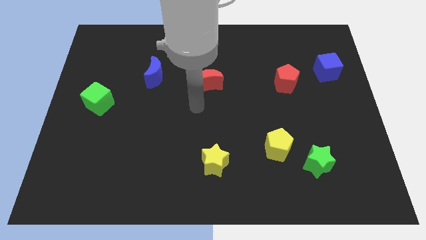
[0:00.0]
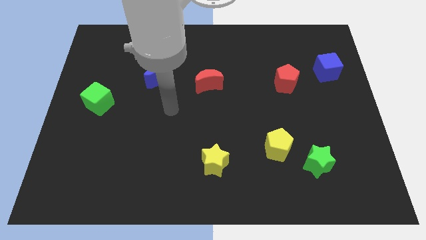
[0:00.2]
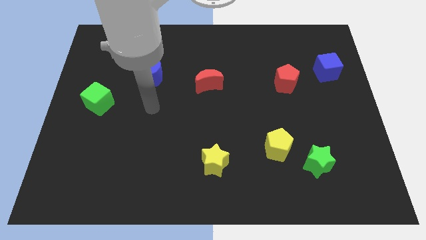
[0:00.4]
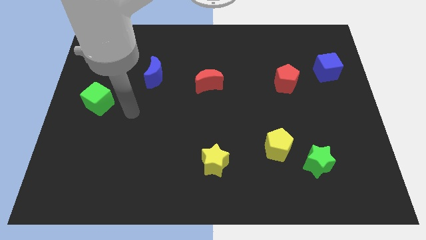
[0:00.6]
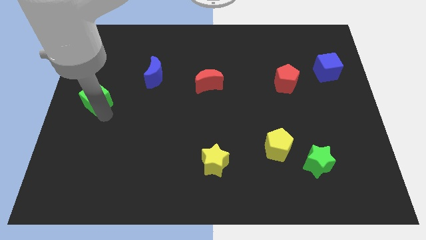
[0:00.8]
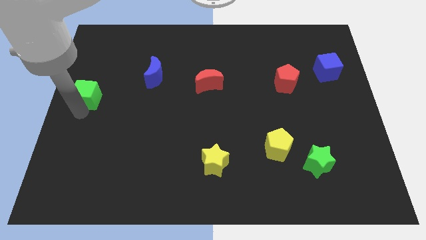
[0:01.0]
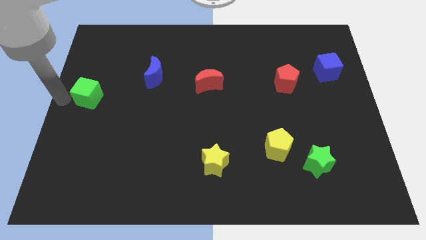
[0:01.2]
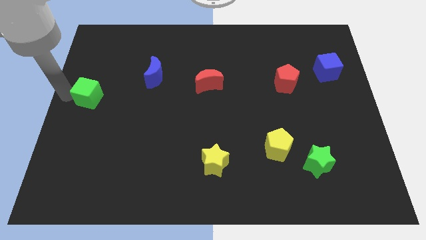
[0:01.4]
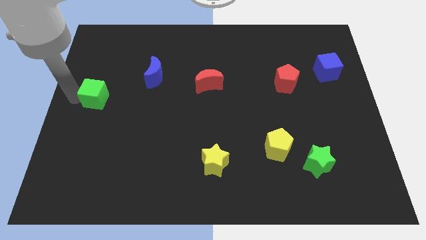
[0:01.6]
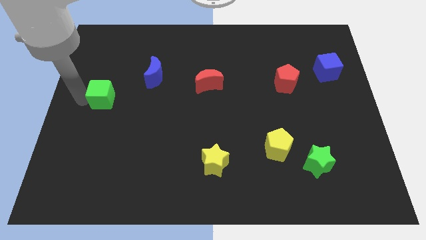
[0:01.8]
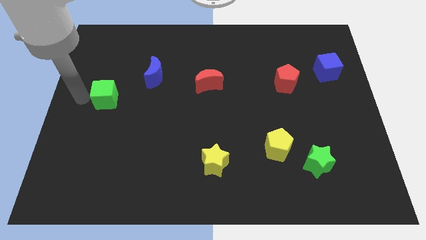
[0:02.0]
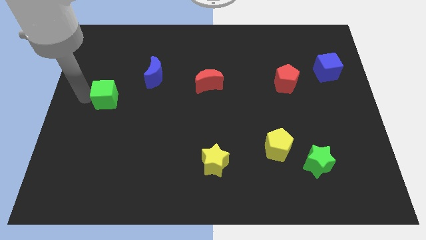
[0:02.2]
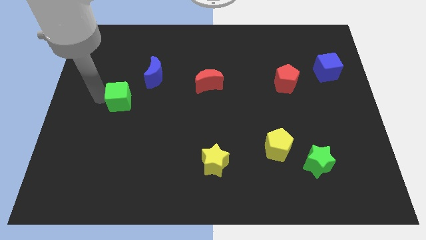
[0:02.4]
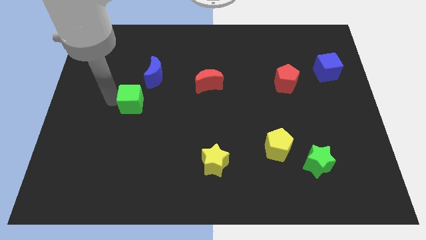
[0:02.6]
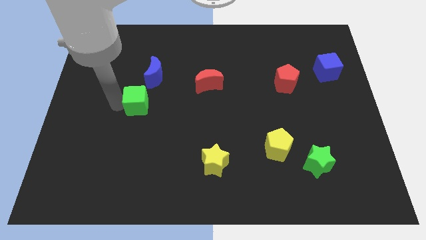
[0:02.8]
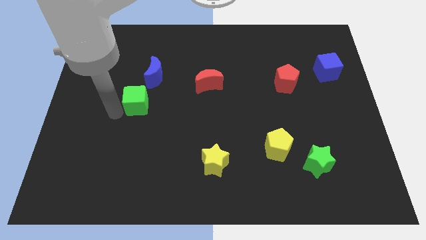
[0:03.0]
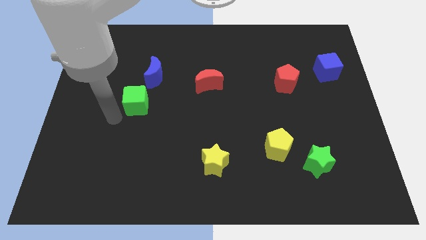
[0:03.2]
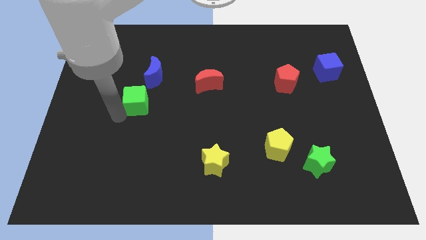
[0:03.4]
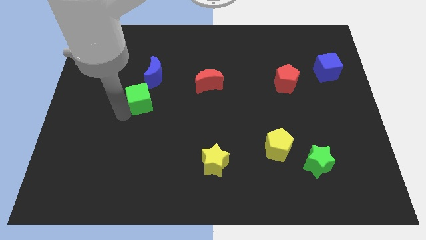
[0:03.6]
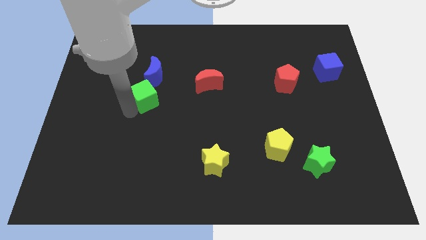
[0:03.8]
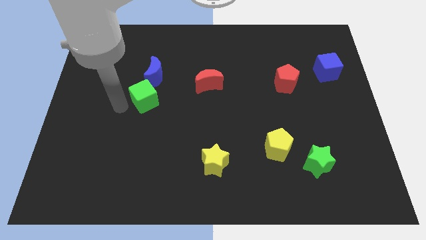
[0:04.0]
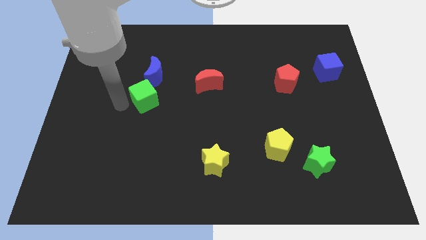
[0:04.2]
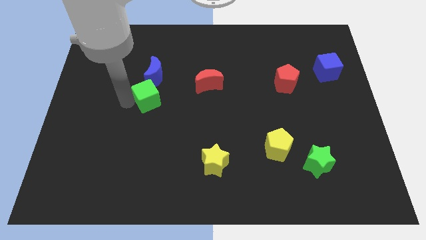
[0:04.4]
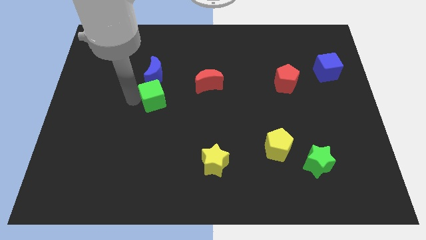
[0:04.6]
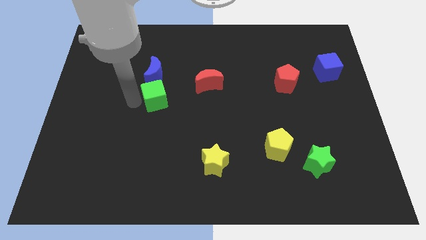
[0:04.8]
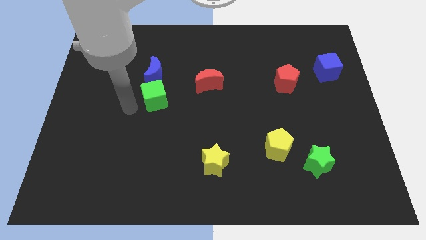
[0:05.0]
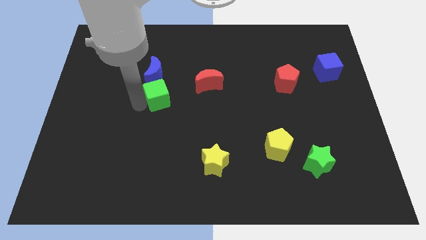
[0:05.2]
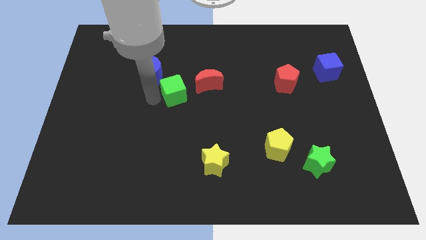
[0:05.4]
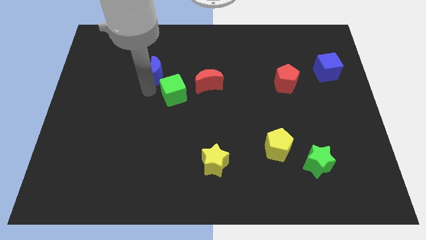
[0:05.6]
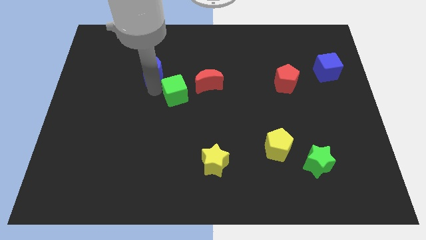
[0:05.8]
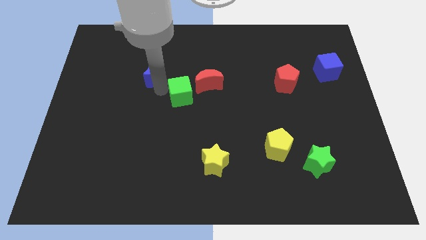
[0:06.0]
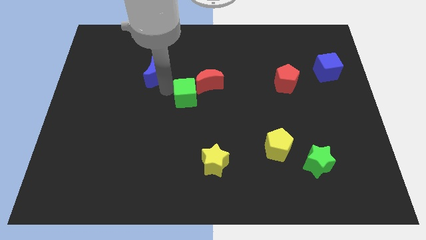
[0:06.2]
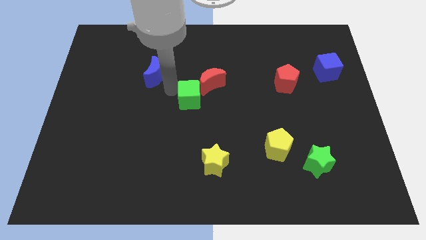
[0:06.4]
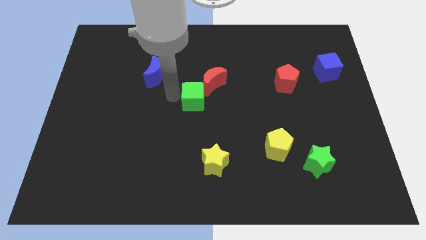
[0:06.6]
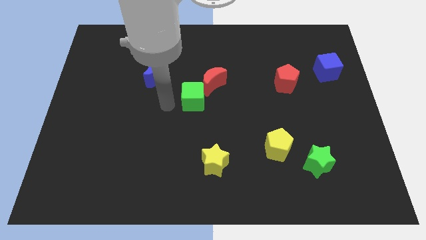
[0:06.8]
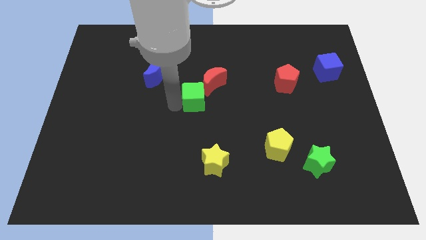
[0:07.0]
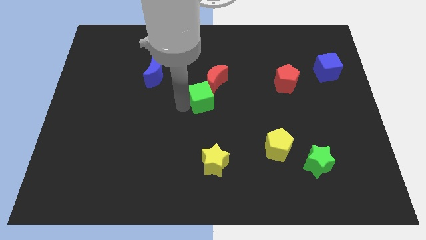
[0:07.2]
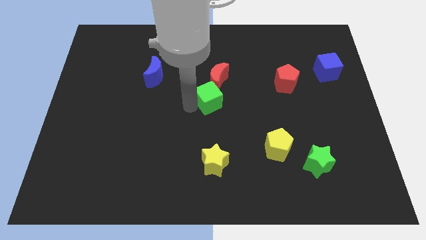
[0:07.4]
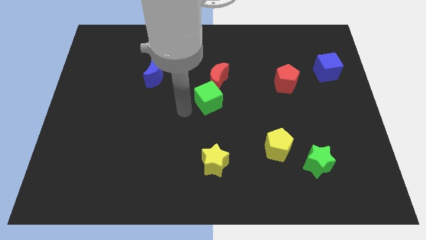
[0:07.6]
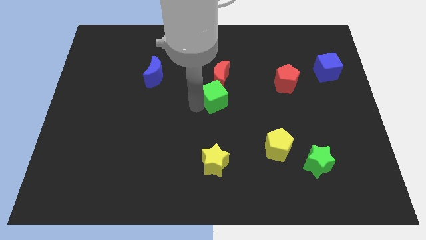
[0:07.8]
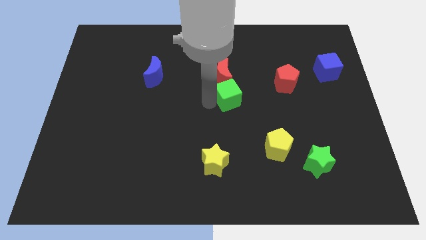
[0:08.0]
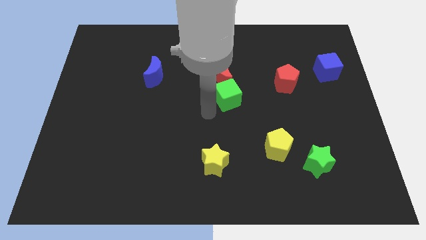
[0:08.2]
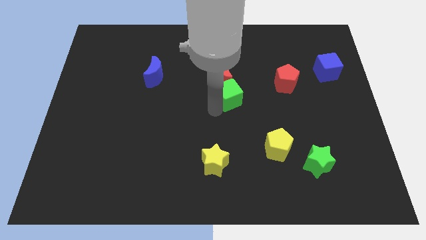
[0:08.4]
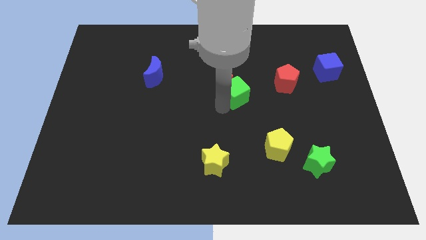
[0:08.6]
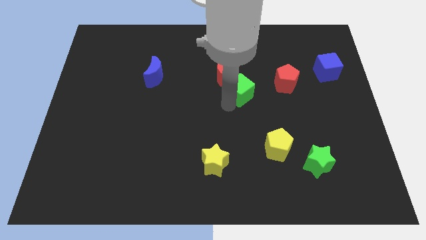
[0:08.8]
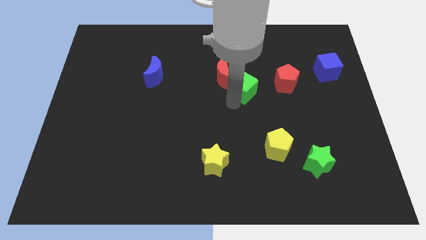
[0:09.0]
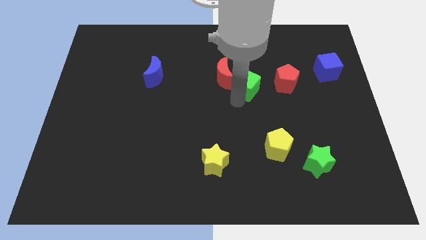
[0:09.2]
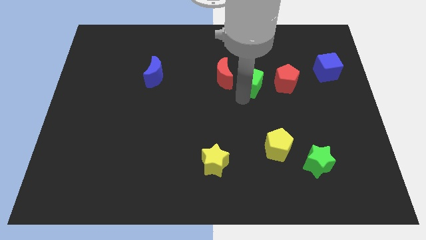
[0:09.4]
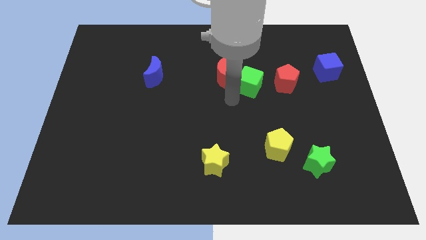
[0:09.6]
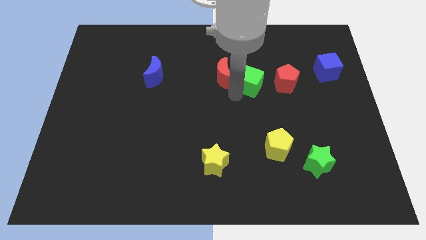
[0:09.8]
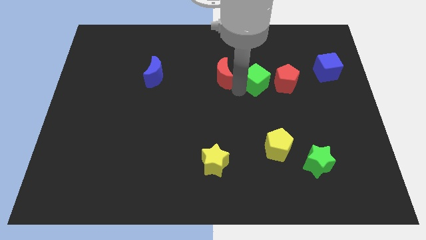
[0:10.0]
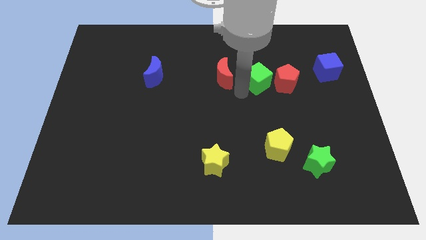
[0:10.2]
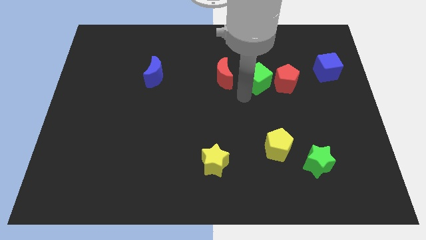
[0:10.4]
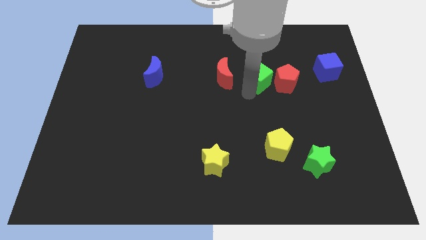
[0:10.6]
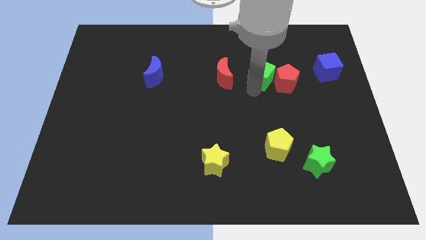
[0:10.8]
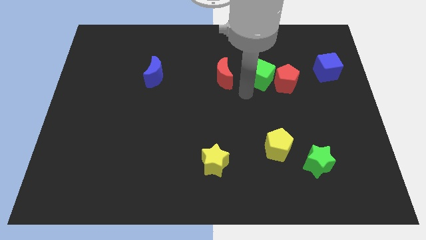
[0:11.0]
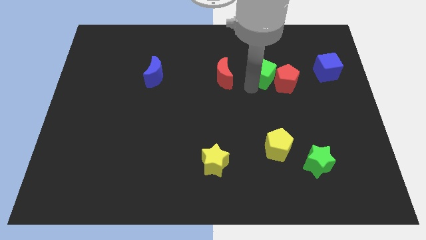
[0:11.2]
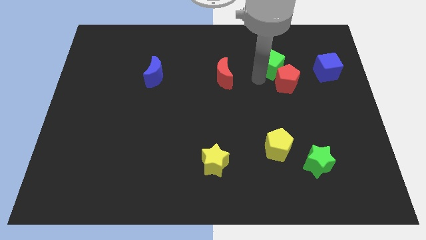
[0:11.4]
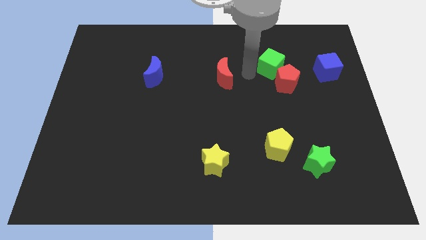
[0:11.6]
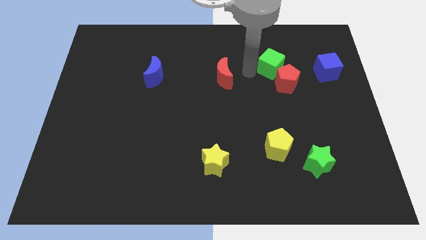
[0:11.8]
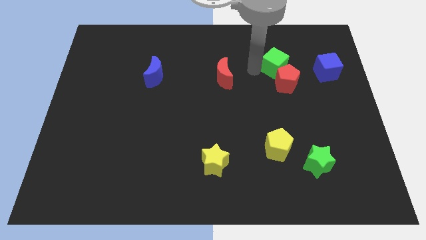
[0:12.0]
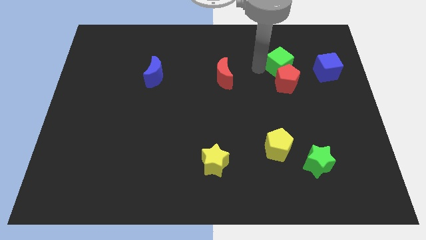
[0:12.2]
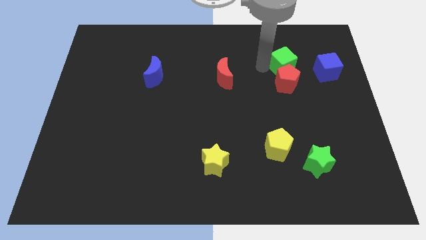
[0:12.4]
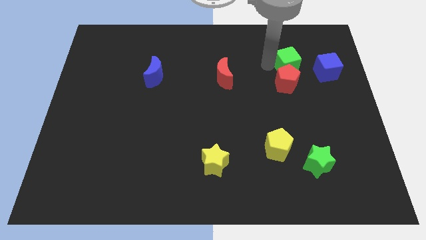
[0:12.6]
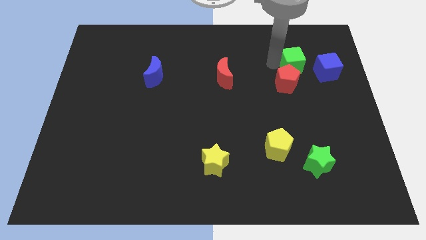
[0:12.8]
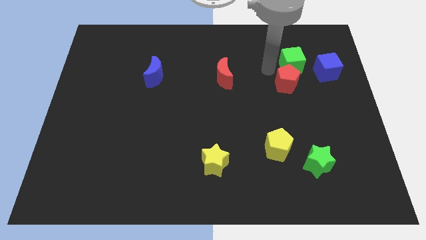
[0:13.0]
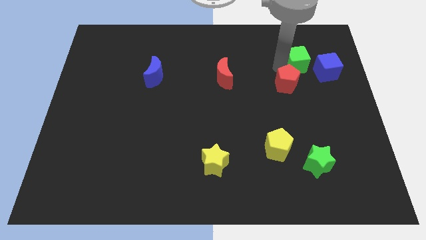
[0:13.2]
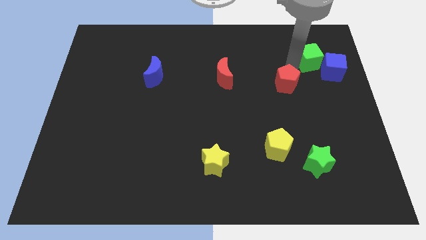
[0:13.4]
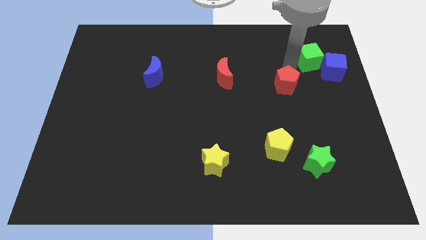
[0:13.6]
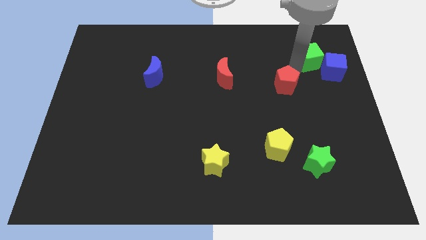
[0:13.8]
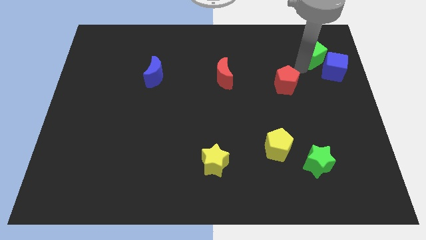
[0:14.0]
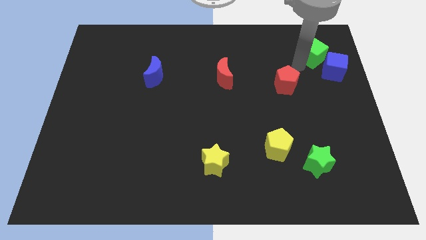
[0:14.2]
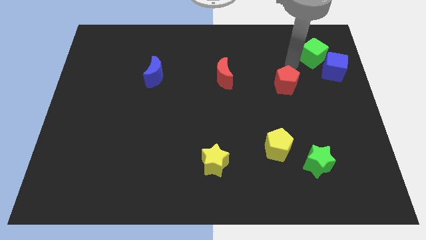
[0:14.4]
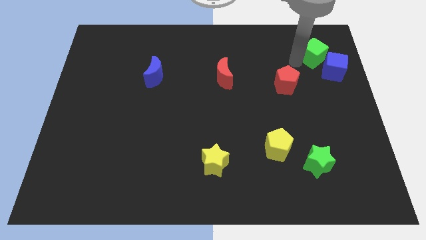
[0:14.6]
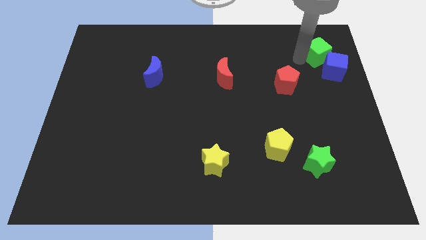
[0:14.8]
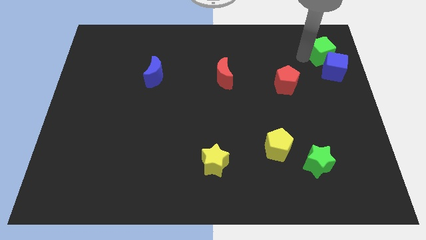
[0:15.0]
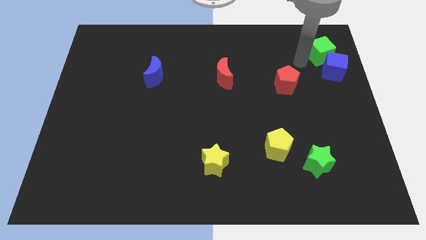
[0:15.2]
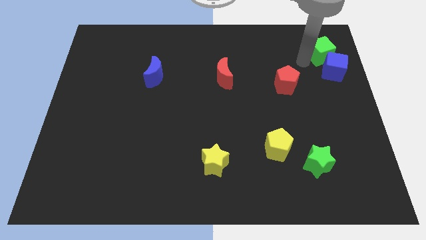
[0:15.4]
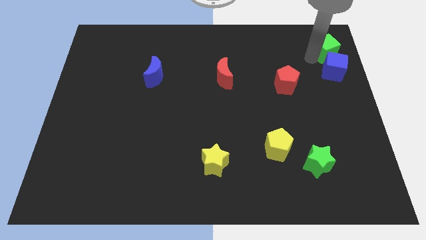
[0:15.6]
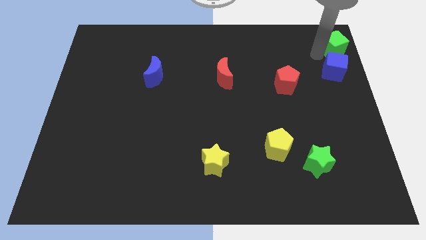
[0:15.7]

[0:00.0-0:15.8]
put the green cube to the top right corner
